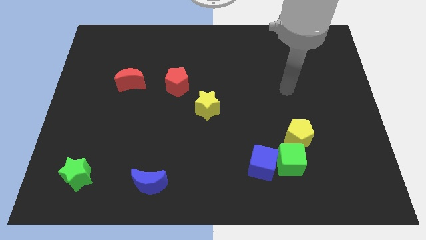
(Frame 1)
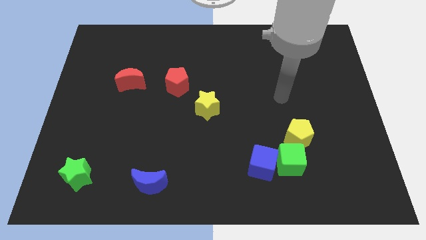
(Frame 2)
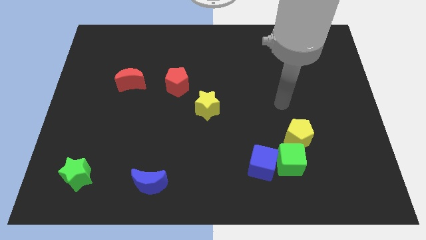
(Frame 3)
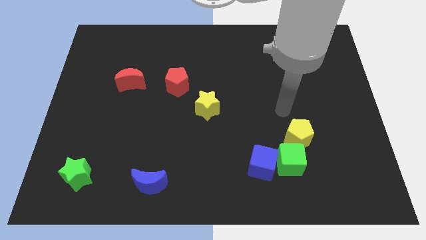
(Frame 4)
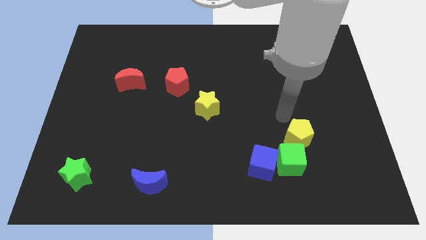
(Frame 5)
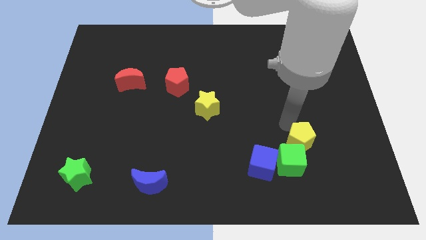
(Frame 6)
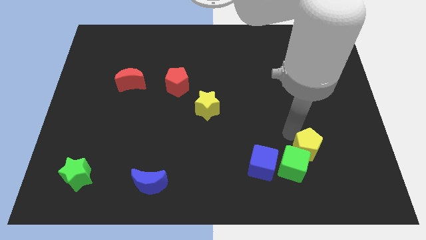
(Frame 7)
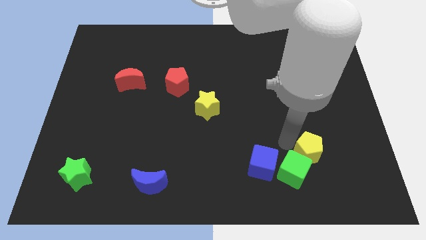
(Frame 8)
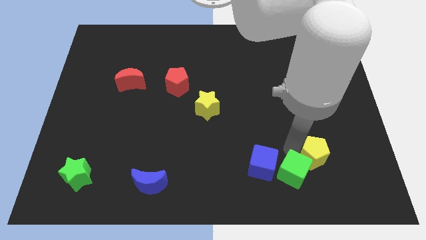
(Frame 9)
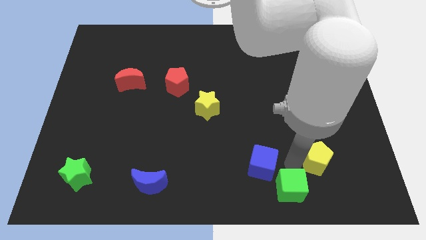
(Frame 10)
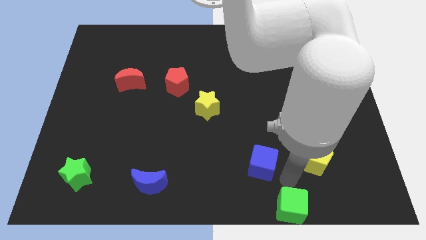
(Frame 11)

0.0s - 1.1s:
move the blue cube away from the green cube

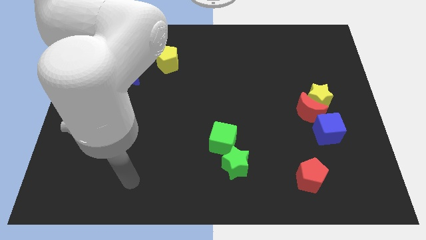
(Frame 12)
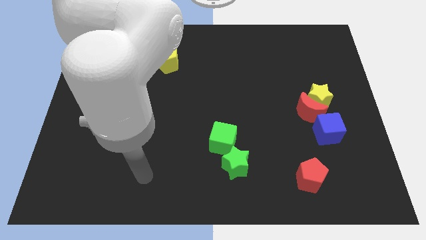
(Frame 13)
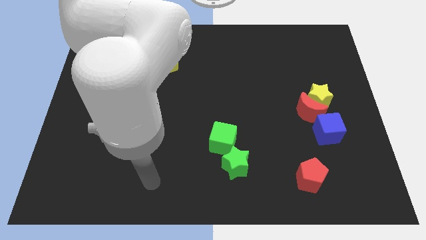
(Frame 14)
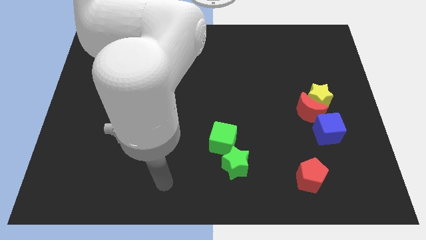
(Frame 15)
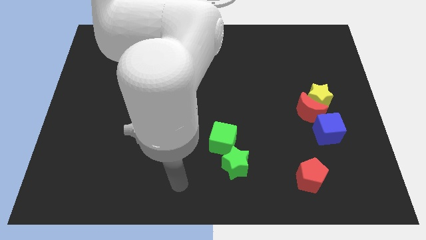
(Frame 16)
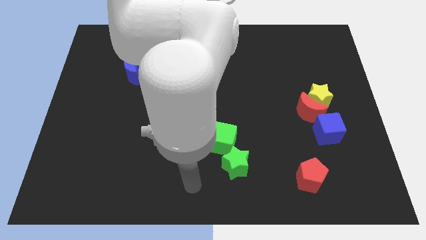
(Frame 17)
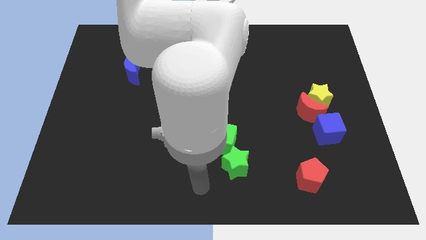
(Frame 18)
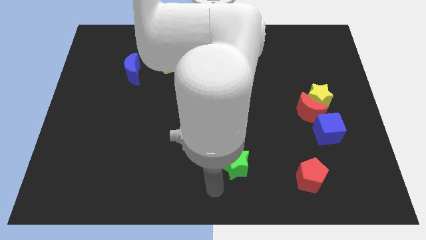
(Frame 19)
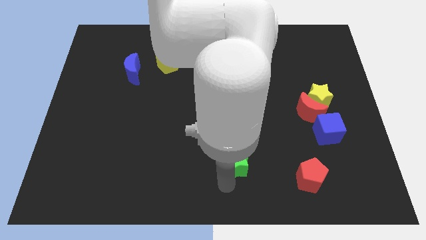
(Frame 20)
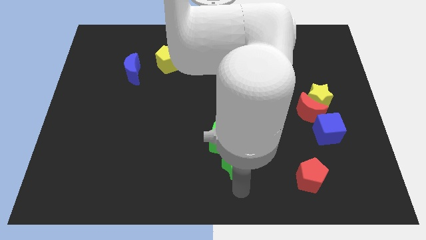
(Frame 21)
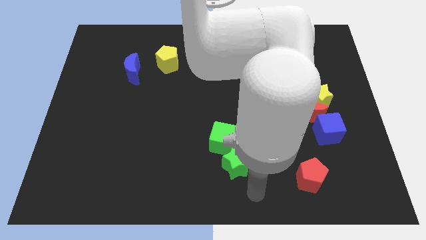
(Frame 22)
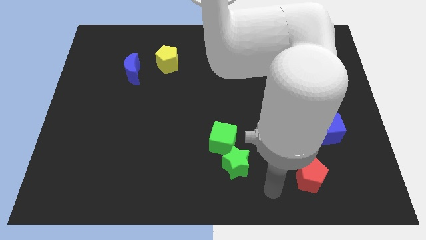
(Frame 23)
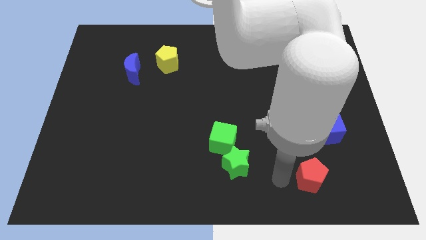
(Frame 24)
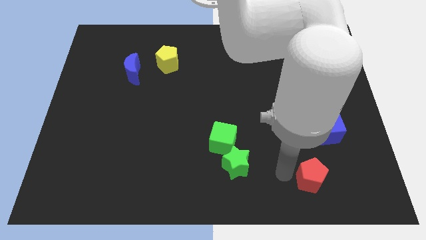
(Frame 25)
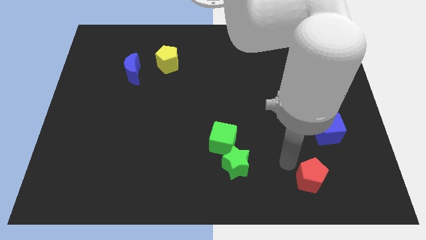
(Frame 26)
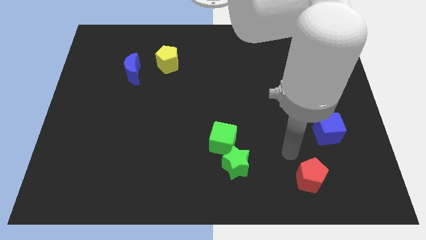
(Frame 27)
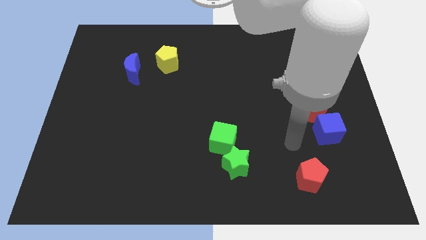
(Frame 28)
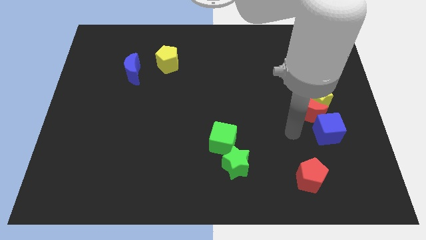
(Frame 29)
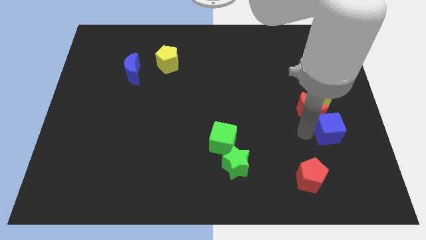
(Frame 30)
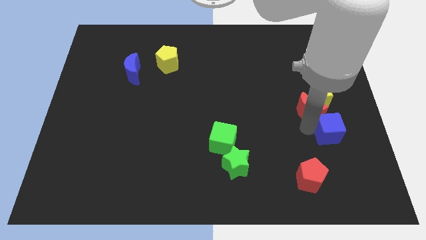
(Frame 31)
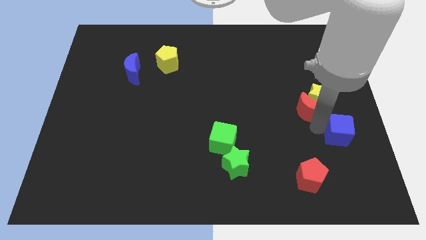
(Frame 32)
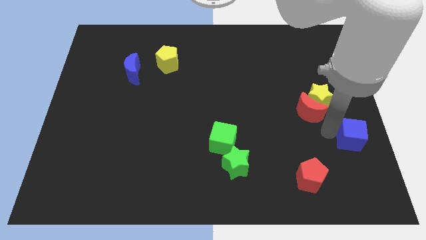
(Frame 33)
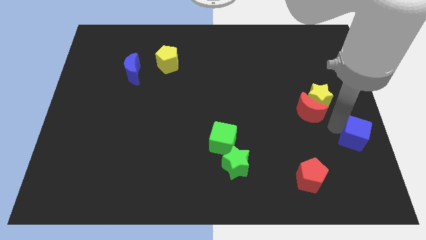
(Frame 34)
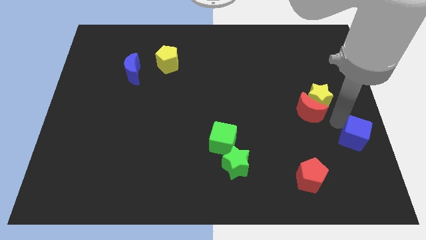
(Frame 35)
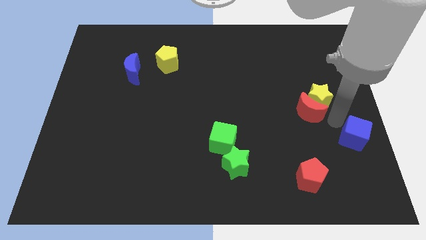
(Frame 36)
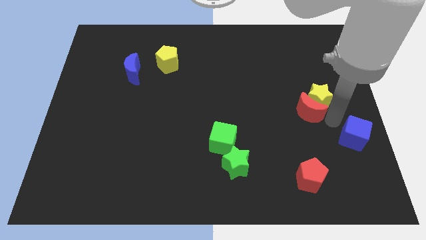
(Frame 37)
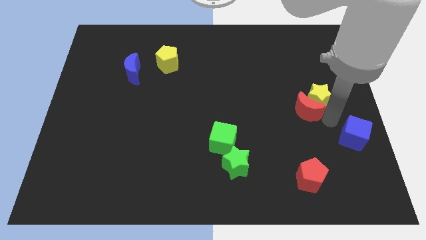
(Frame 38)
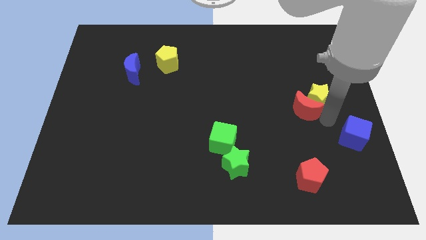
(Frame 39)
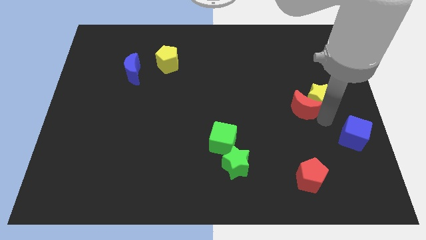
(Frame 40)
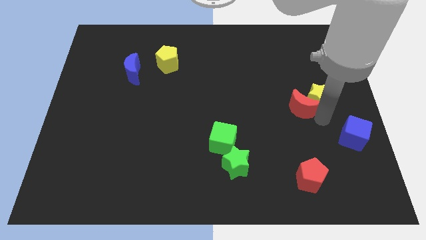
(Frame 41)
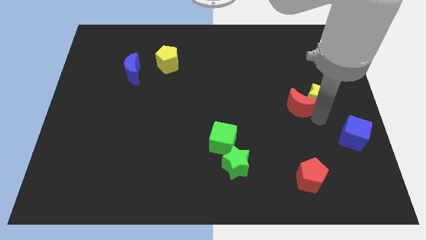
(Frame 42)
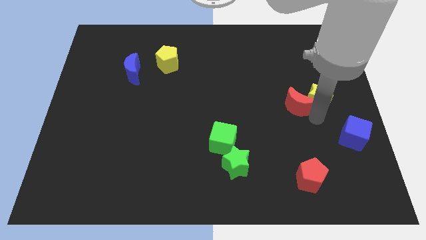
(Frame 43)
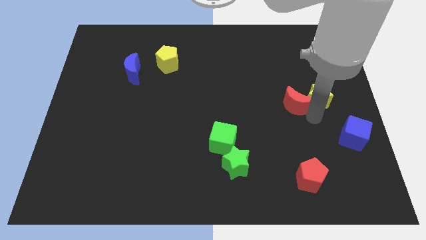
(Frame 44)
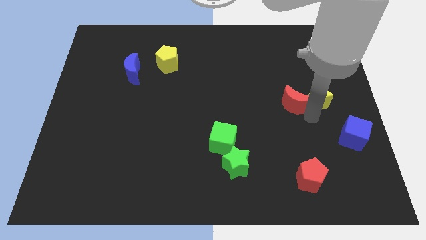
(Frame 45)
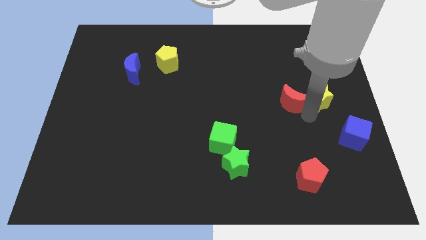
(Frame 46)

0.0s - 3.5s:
separate the red moon from the yellow star and blue cube

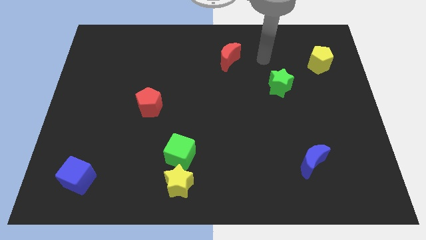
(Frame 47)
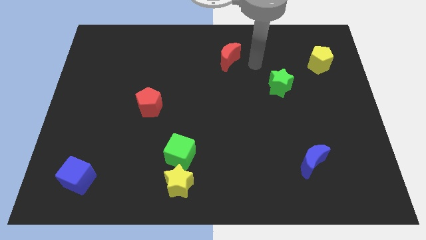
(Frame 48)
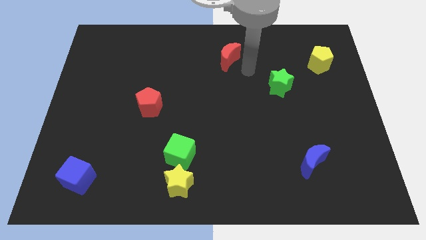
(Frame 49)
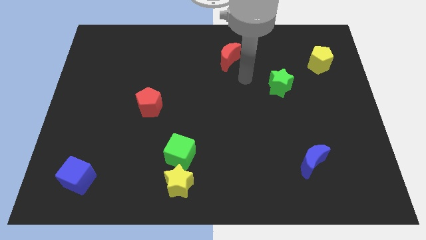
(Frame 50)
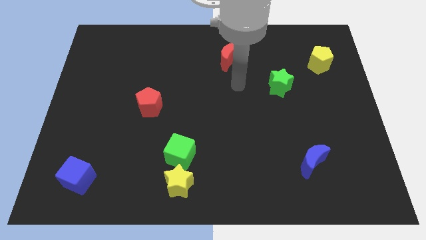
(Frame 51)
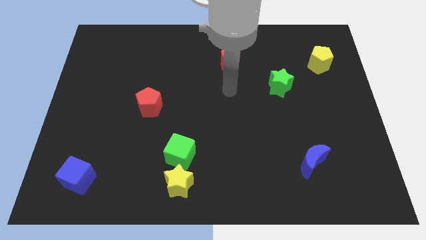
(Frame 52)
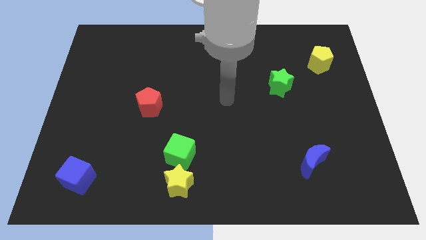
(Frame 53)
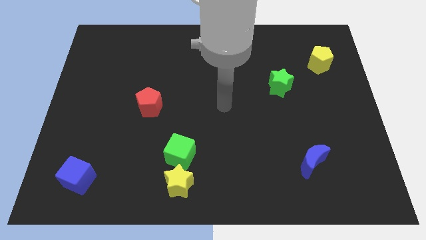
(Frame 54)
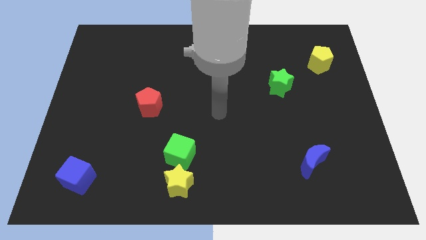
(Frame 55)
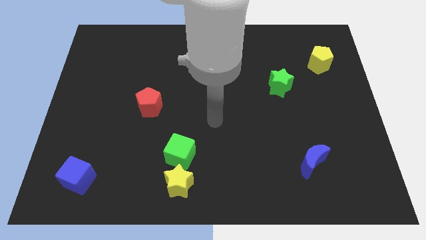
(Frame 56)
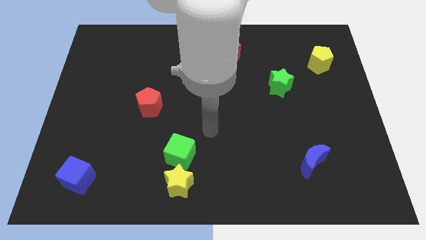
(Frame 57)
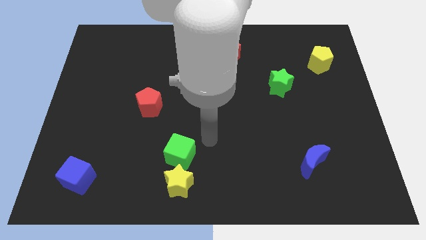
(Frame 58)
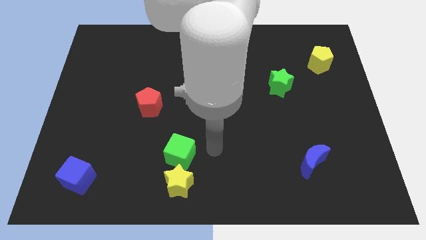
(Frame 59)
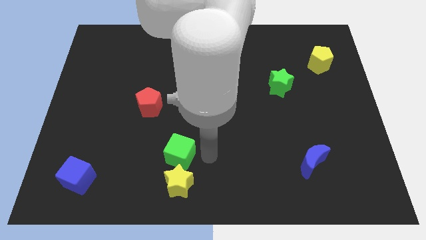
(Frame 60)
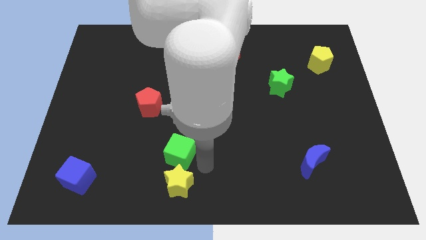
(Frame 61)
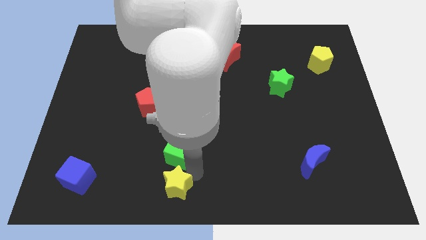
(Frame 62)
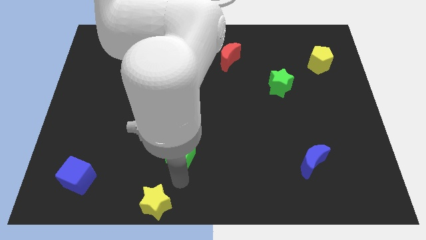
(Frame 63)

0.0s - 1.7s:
separate the green cube from the yellow star

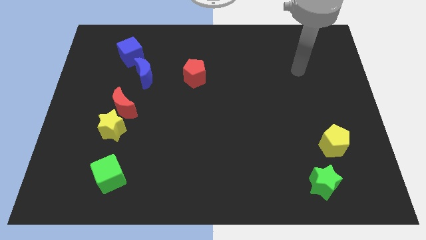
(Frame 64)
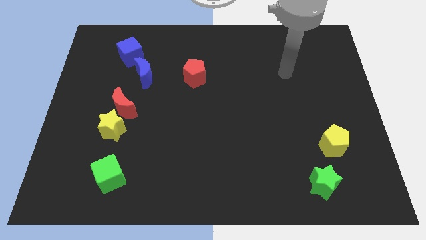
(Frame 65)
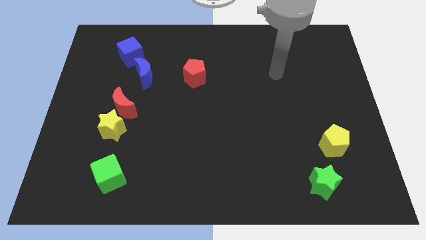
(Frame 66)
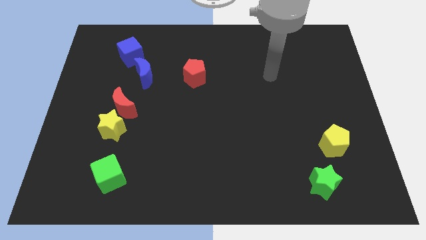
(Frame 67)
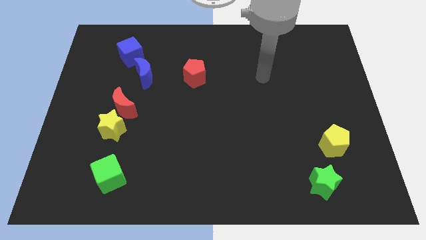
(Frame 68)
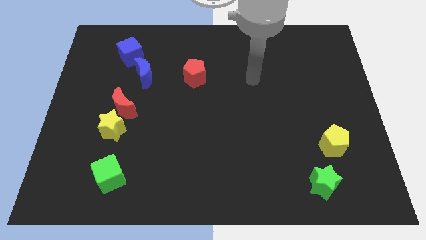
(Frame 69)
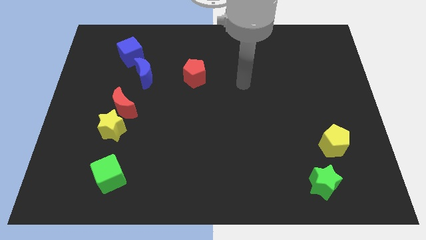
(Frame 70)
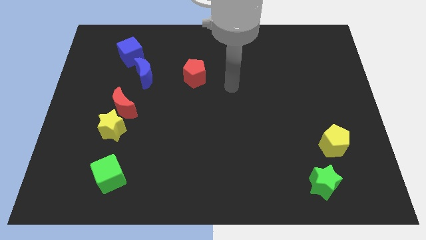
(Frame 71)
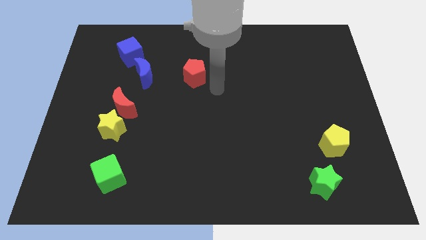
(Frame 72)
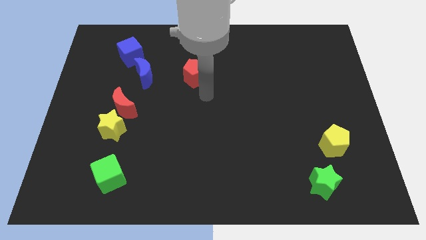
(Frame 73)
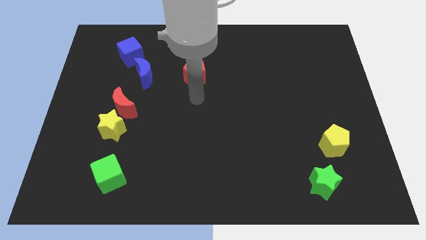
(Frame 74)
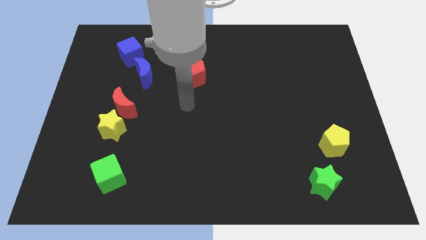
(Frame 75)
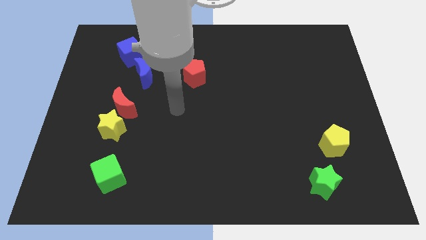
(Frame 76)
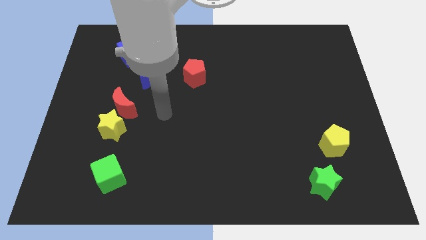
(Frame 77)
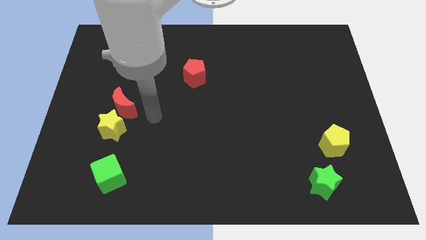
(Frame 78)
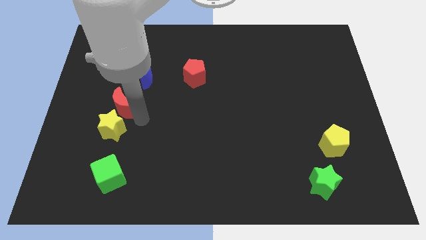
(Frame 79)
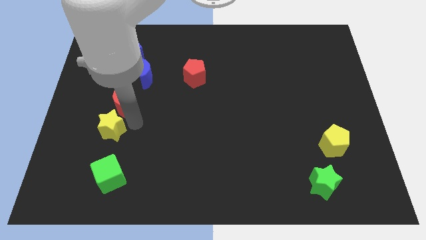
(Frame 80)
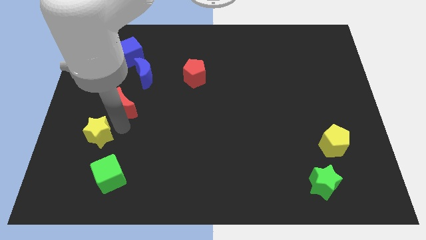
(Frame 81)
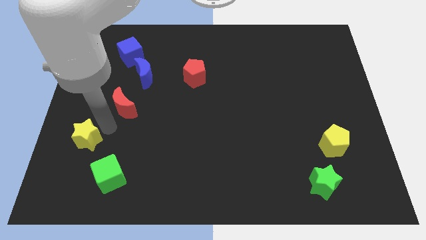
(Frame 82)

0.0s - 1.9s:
pull the red moon apart from the yellow star

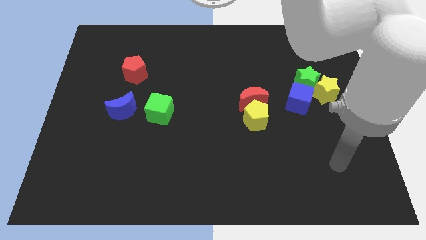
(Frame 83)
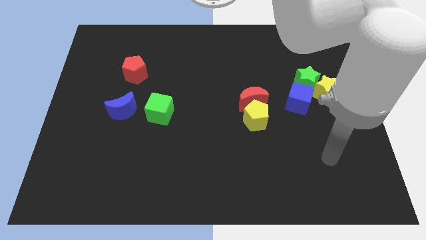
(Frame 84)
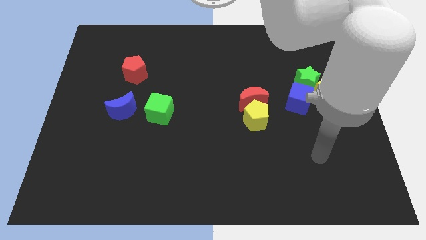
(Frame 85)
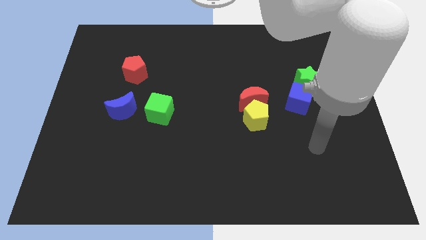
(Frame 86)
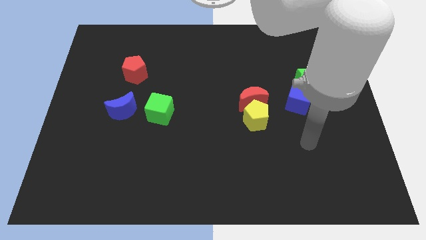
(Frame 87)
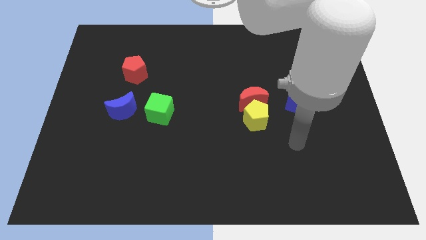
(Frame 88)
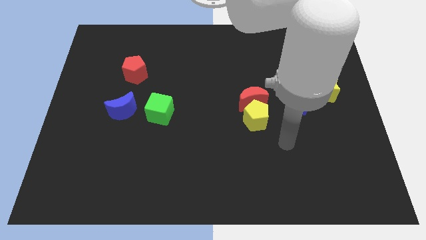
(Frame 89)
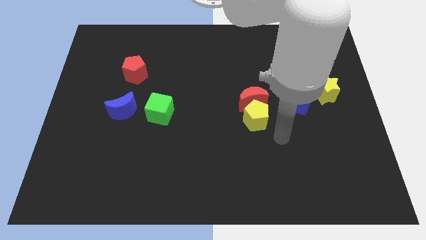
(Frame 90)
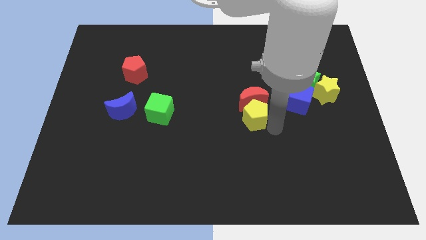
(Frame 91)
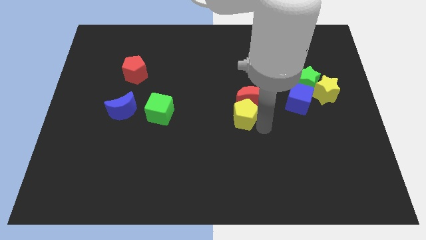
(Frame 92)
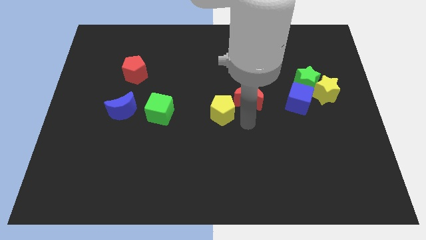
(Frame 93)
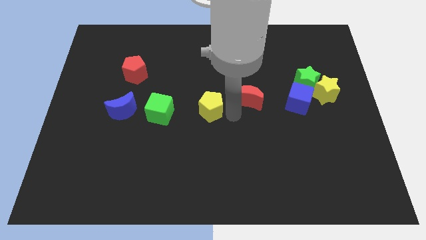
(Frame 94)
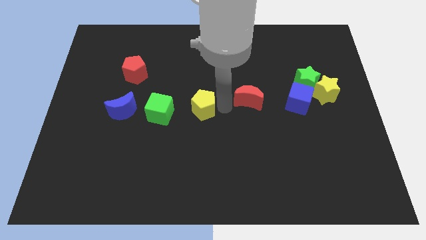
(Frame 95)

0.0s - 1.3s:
move the red moon away from the yellow pentagon
